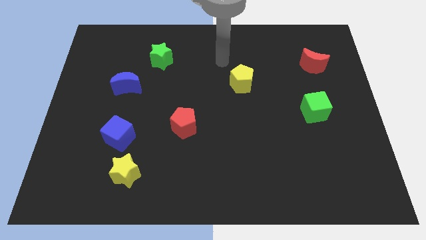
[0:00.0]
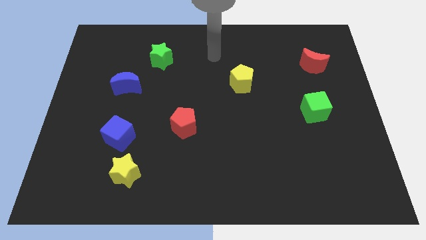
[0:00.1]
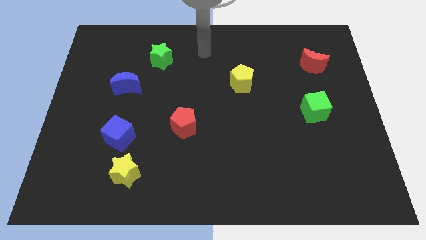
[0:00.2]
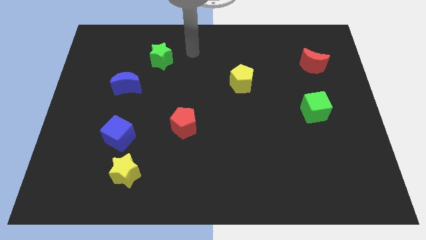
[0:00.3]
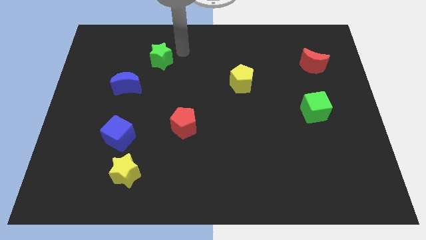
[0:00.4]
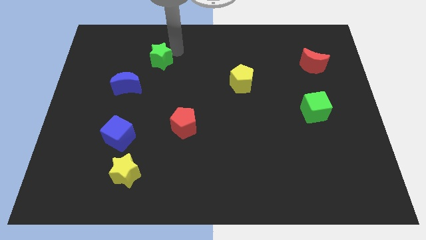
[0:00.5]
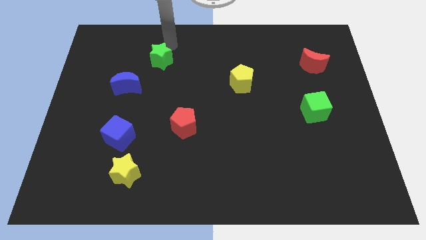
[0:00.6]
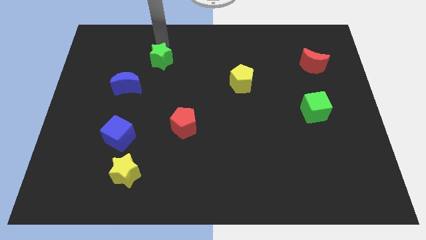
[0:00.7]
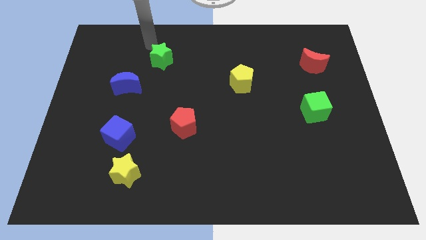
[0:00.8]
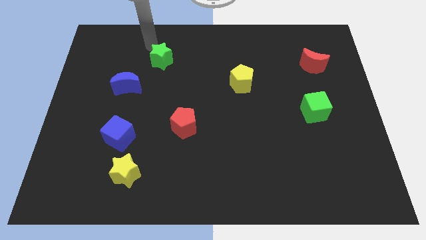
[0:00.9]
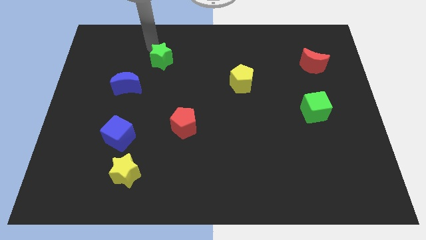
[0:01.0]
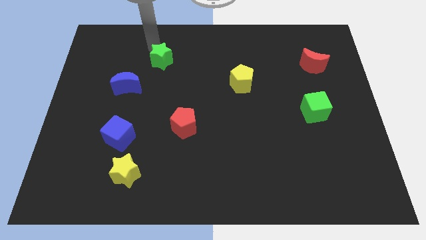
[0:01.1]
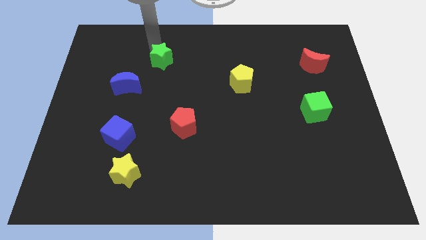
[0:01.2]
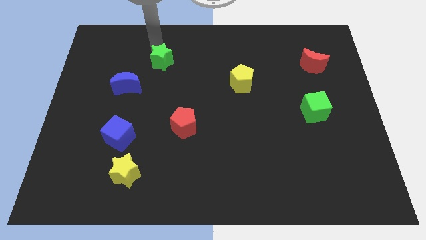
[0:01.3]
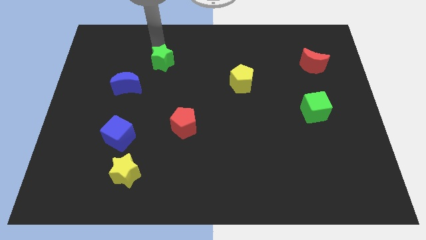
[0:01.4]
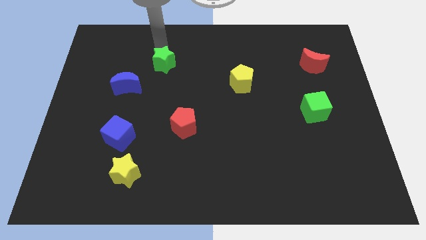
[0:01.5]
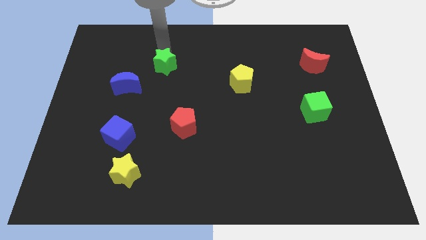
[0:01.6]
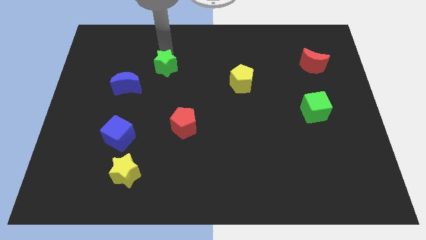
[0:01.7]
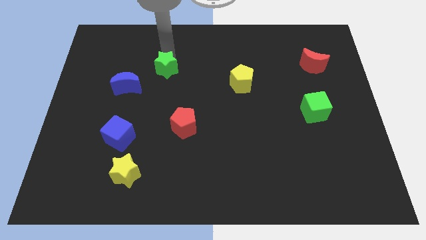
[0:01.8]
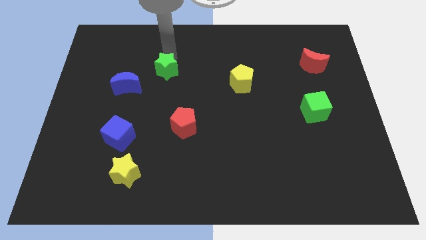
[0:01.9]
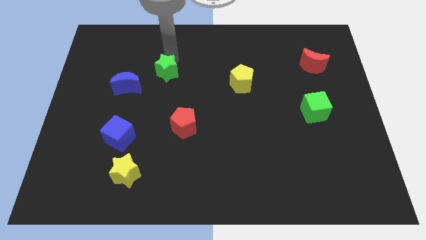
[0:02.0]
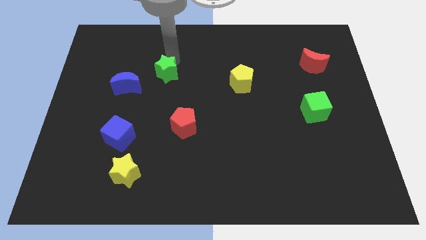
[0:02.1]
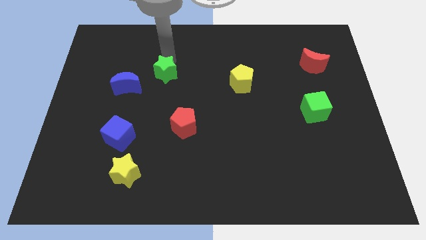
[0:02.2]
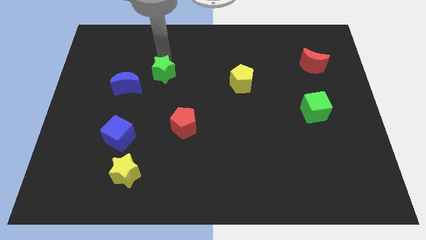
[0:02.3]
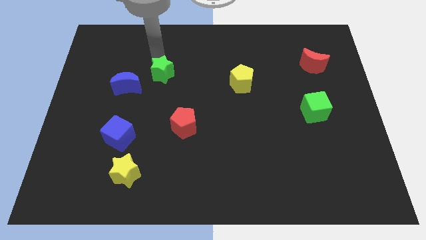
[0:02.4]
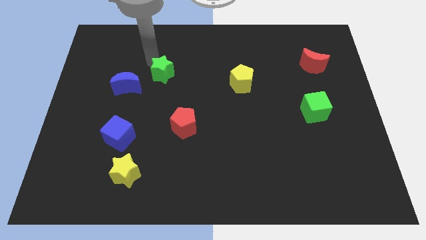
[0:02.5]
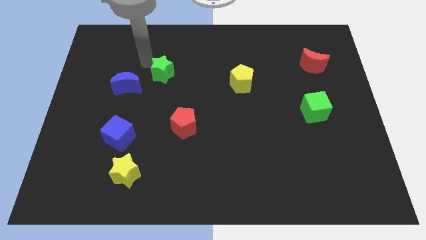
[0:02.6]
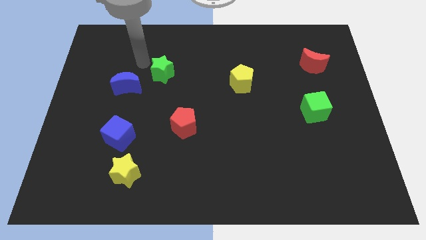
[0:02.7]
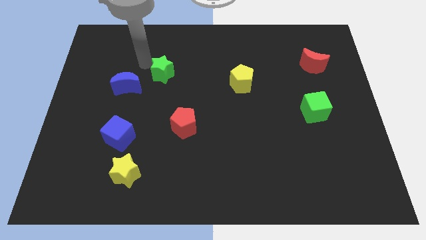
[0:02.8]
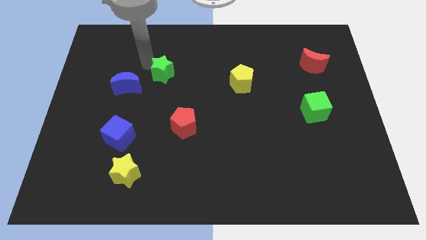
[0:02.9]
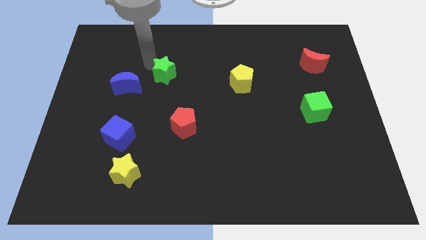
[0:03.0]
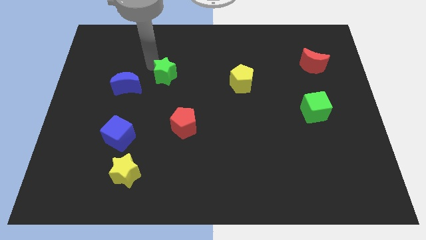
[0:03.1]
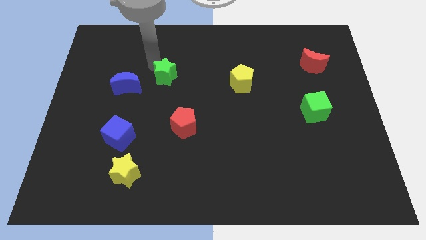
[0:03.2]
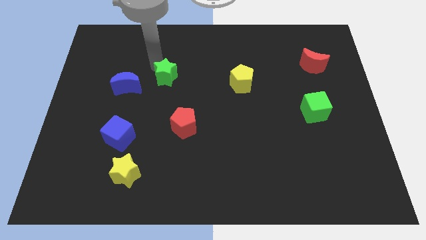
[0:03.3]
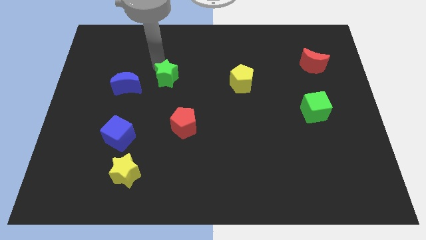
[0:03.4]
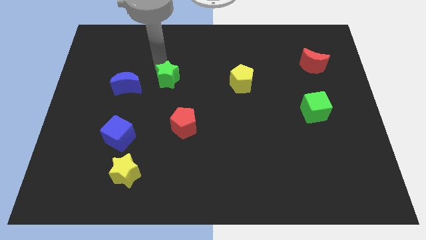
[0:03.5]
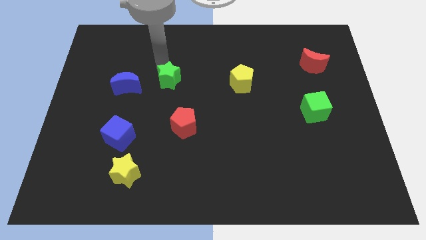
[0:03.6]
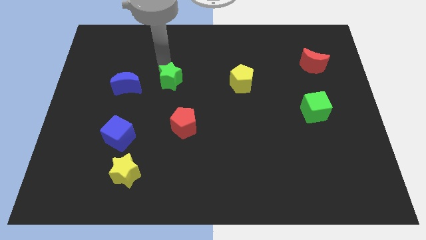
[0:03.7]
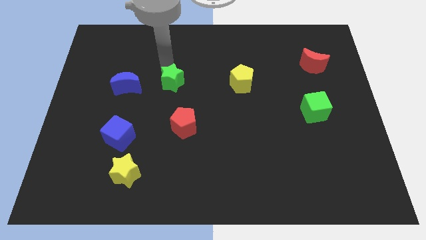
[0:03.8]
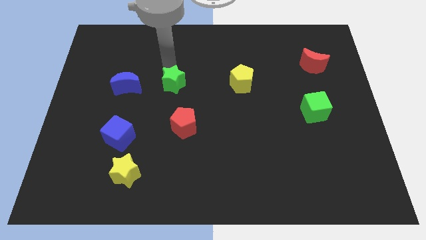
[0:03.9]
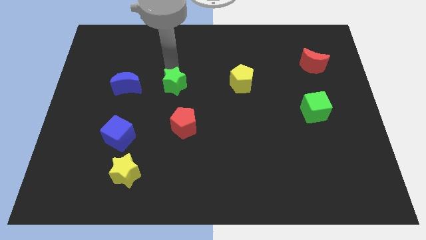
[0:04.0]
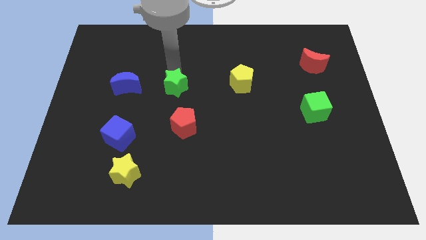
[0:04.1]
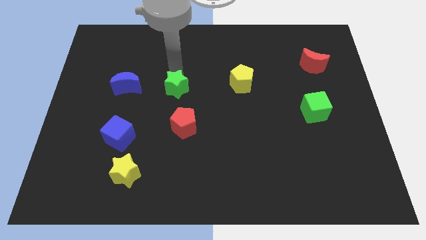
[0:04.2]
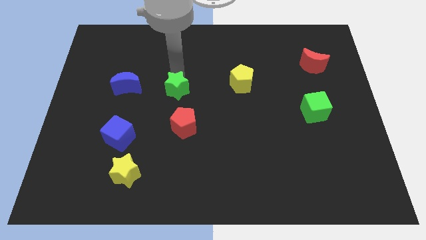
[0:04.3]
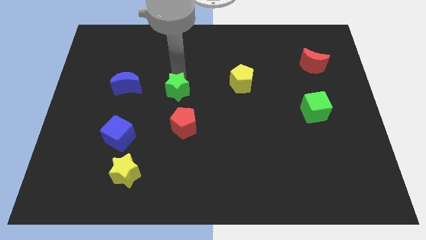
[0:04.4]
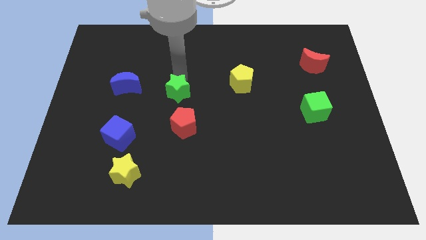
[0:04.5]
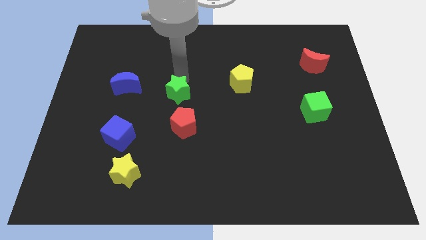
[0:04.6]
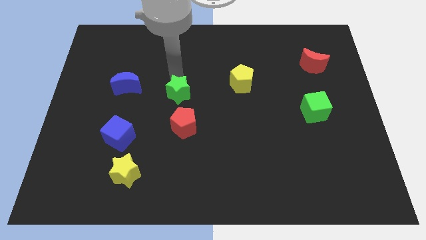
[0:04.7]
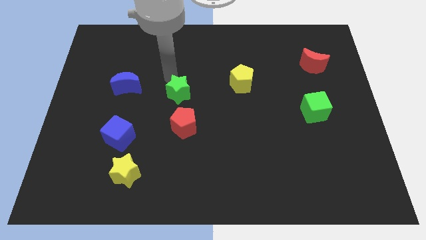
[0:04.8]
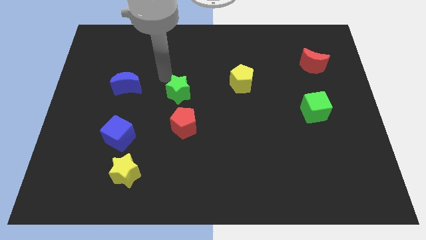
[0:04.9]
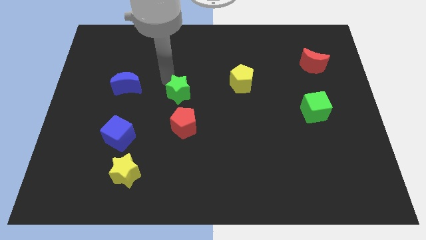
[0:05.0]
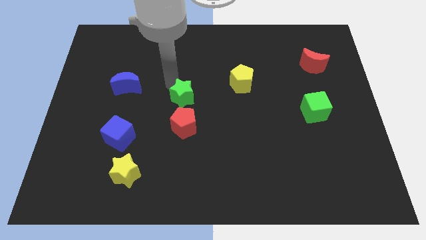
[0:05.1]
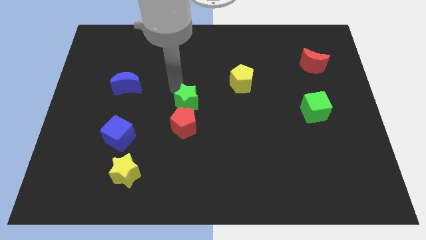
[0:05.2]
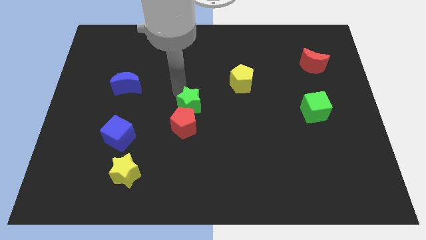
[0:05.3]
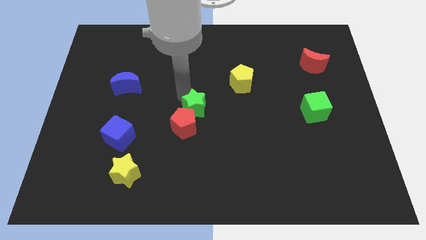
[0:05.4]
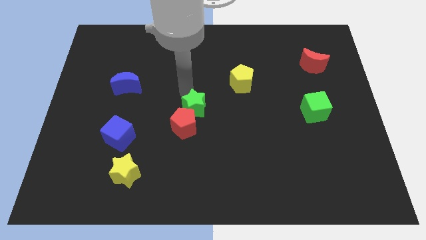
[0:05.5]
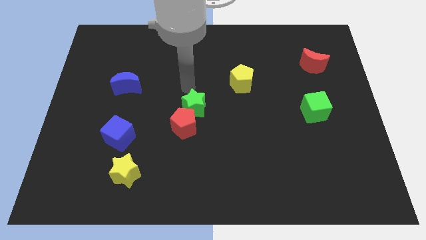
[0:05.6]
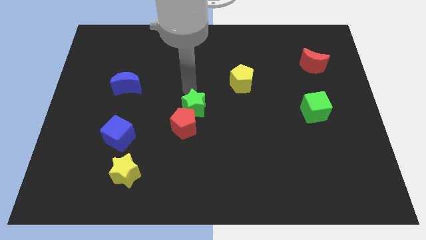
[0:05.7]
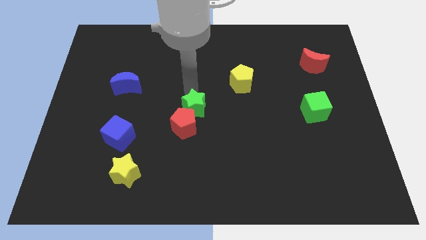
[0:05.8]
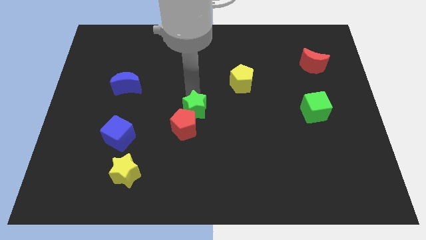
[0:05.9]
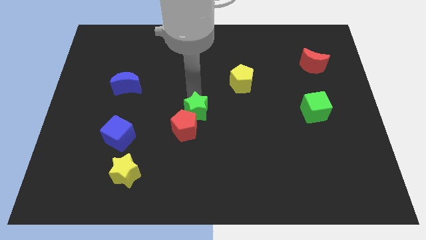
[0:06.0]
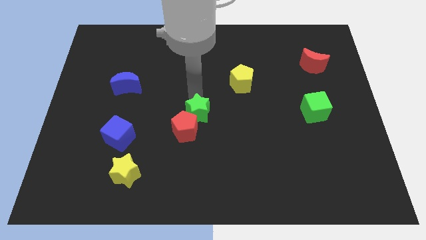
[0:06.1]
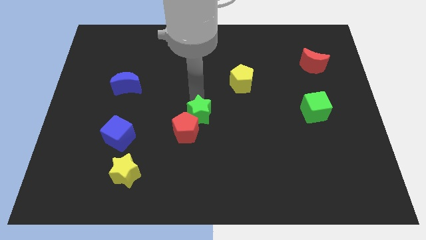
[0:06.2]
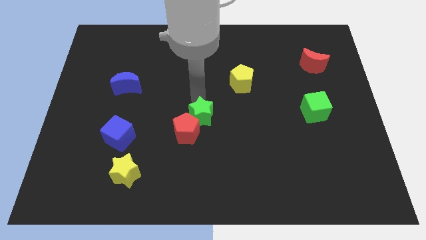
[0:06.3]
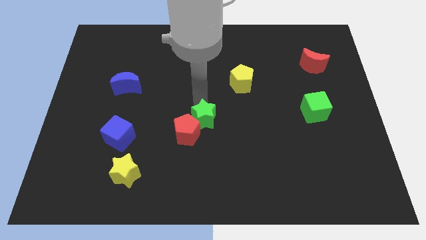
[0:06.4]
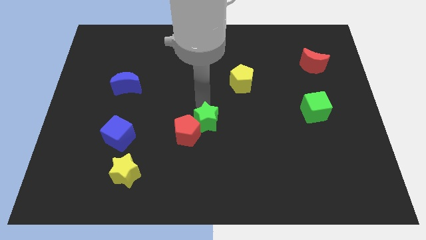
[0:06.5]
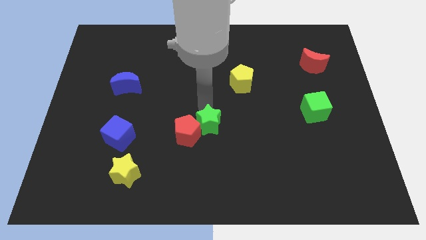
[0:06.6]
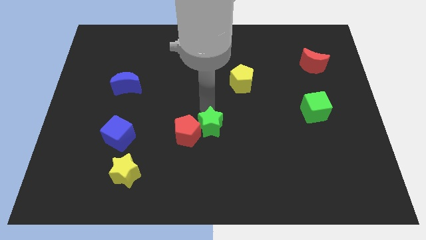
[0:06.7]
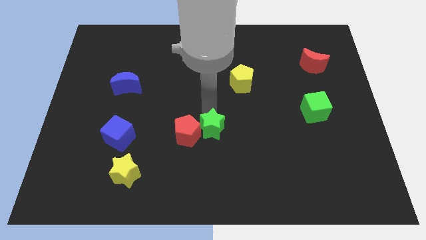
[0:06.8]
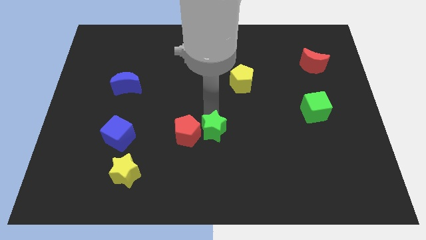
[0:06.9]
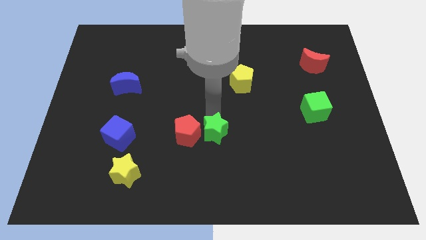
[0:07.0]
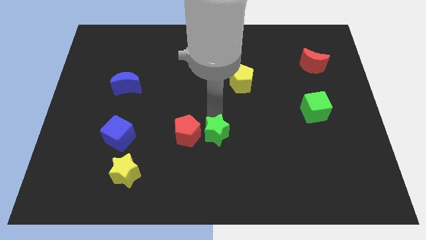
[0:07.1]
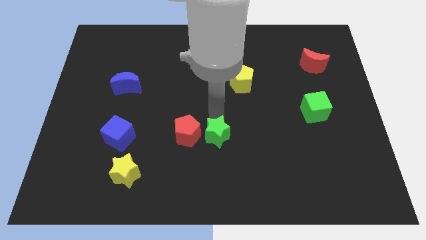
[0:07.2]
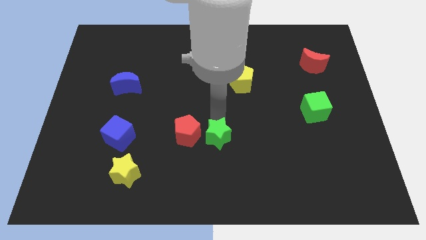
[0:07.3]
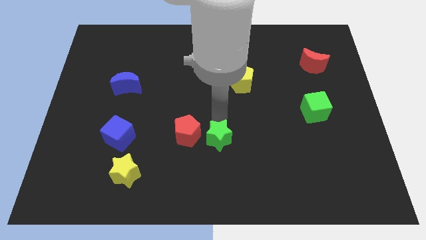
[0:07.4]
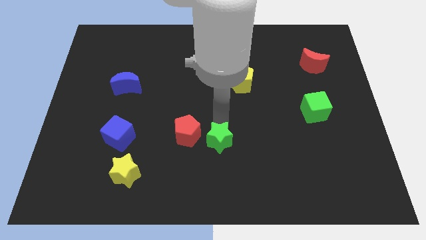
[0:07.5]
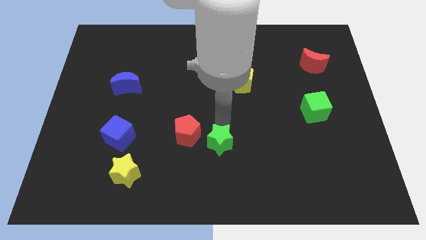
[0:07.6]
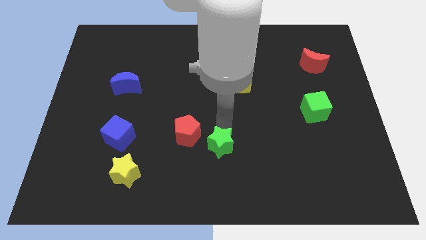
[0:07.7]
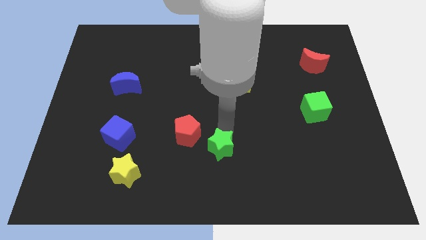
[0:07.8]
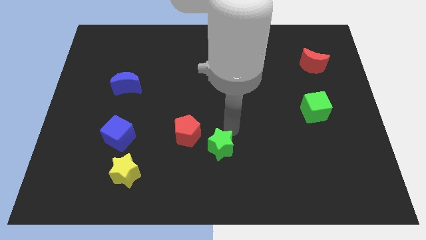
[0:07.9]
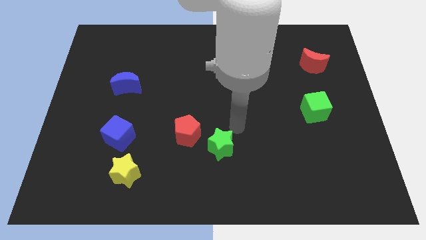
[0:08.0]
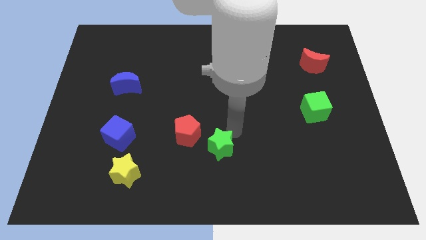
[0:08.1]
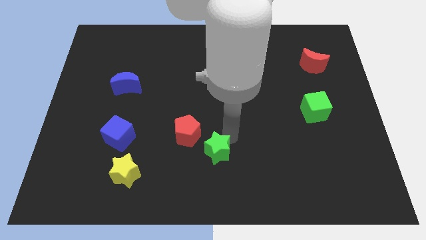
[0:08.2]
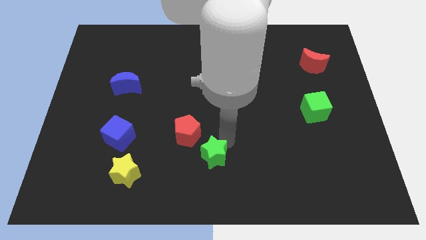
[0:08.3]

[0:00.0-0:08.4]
push the green star to the bottom side
